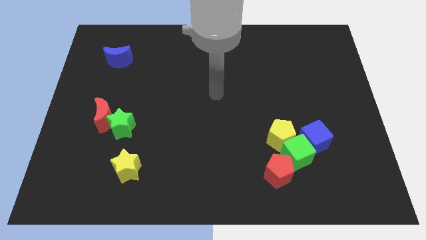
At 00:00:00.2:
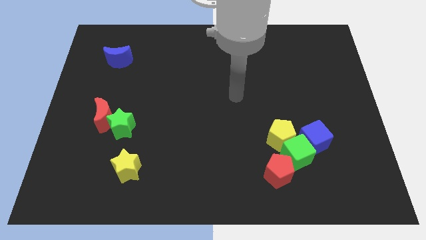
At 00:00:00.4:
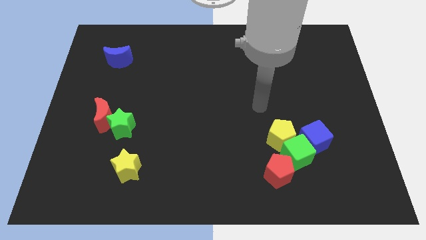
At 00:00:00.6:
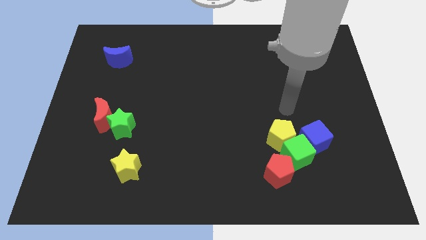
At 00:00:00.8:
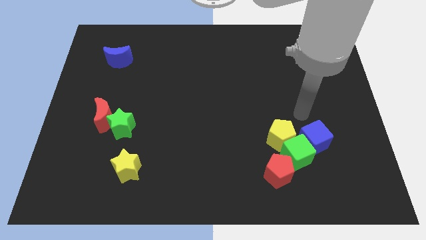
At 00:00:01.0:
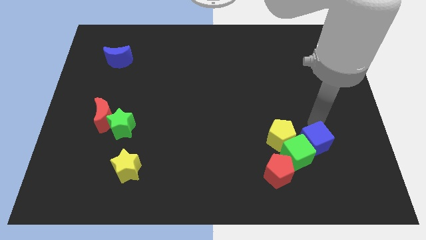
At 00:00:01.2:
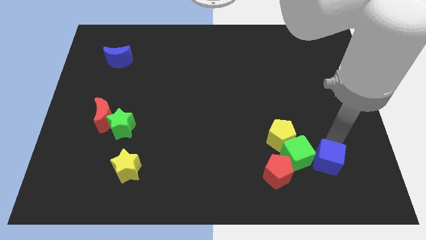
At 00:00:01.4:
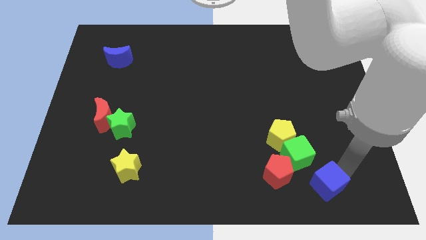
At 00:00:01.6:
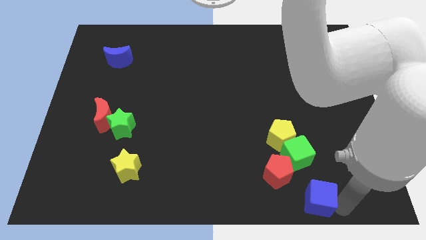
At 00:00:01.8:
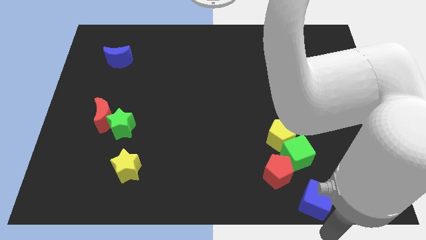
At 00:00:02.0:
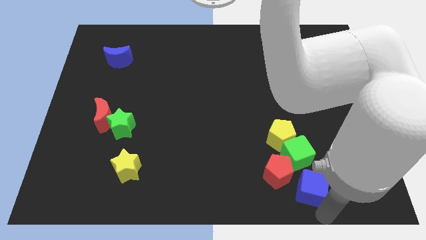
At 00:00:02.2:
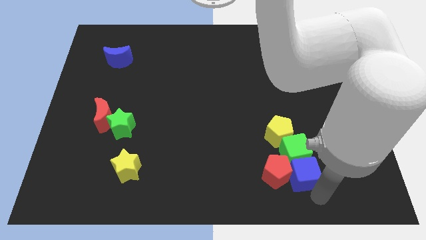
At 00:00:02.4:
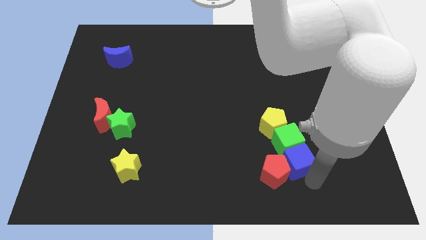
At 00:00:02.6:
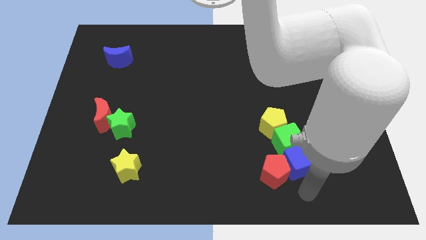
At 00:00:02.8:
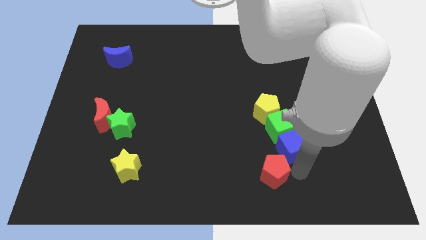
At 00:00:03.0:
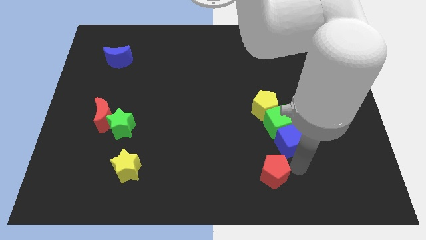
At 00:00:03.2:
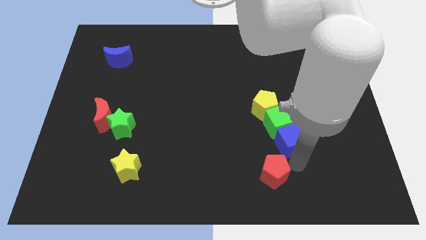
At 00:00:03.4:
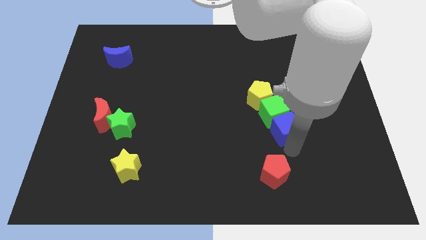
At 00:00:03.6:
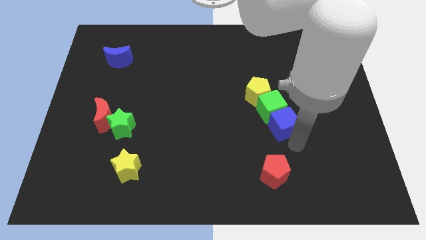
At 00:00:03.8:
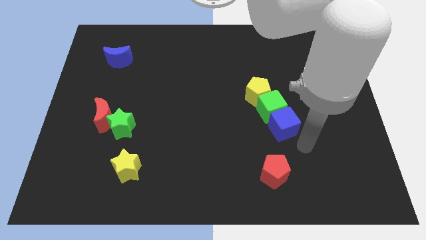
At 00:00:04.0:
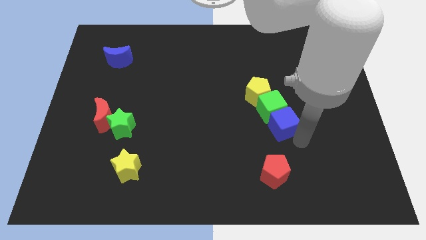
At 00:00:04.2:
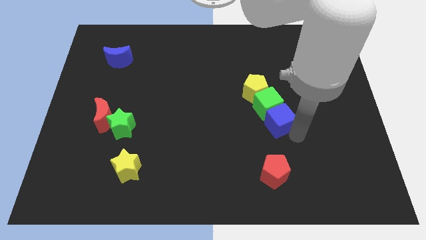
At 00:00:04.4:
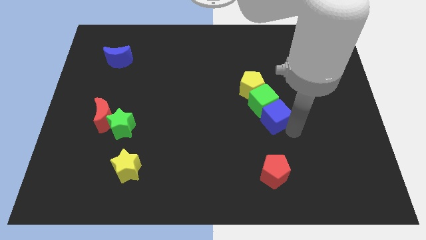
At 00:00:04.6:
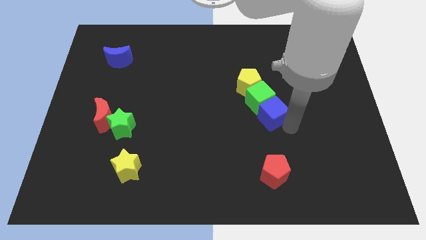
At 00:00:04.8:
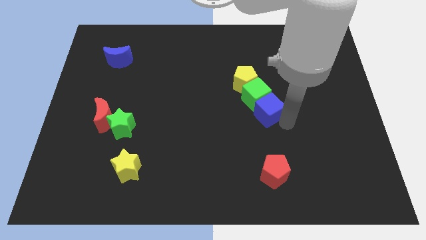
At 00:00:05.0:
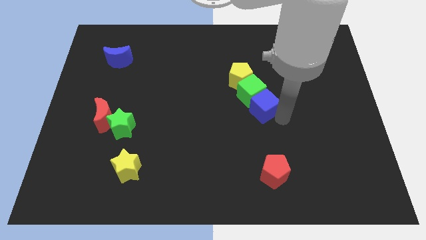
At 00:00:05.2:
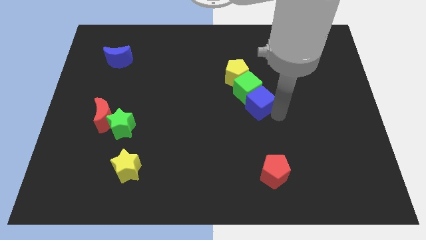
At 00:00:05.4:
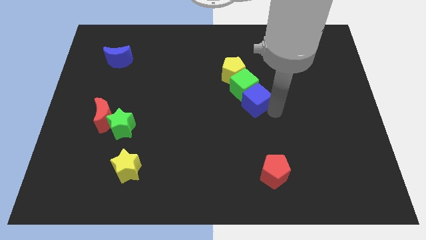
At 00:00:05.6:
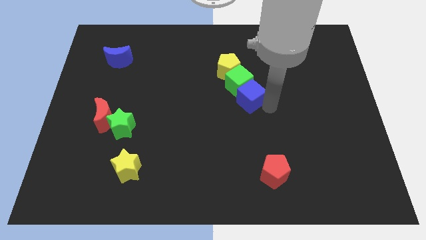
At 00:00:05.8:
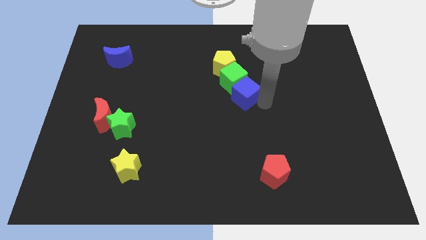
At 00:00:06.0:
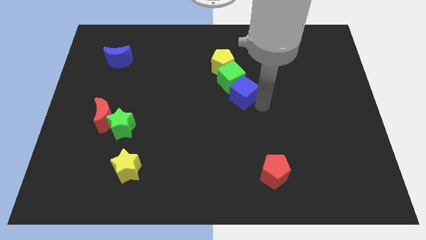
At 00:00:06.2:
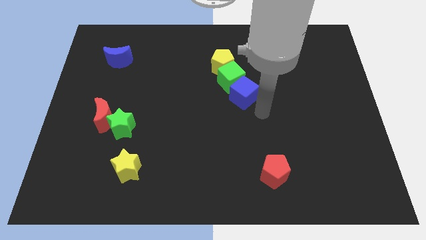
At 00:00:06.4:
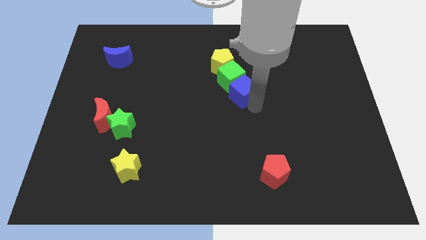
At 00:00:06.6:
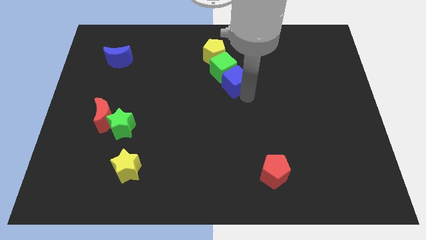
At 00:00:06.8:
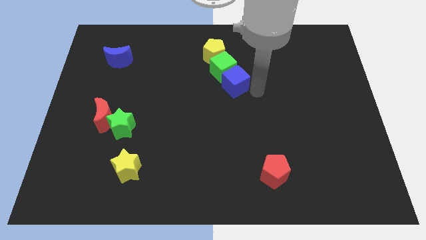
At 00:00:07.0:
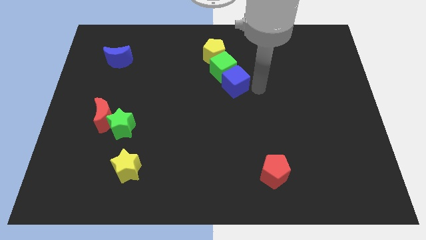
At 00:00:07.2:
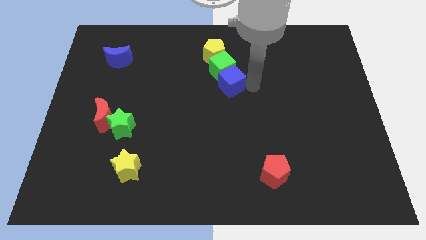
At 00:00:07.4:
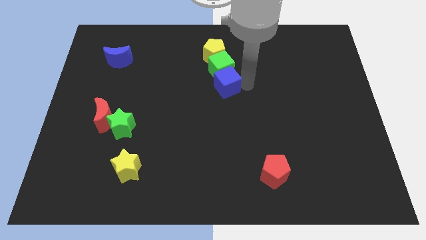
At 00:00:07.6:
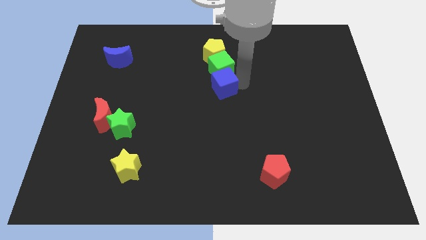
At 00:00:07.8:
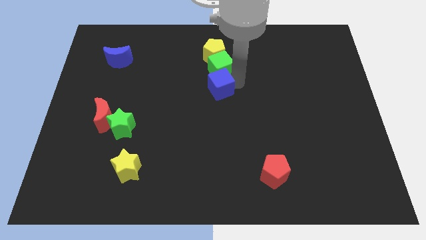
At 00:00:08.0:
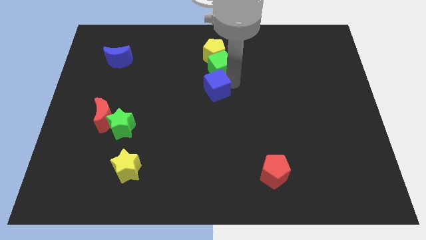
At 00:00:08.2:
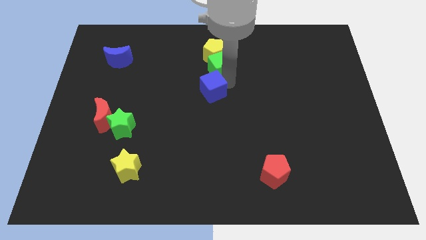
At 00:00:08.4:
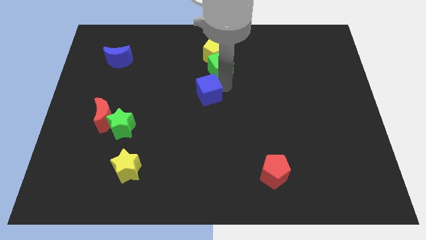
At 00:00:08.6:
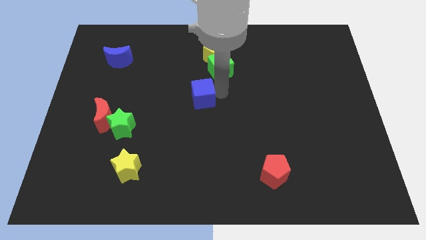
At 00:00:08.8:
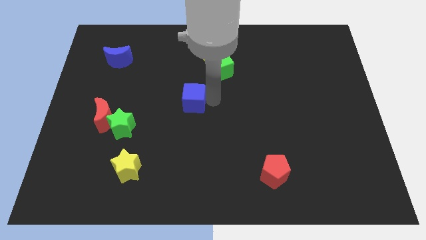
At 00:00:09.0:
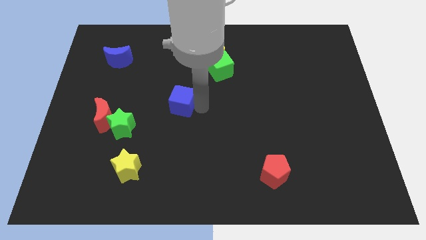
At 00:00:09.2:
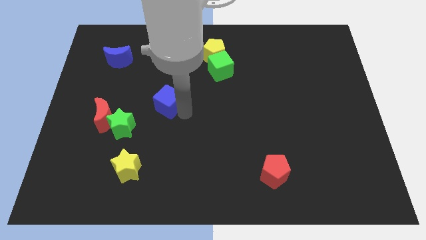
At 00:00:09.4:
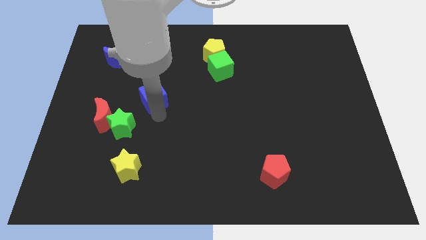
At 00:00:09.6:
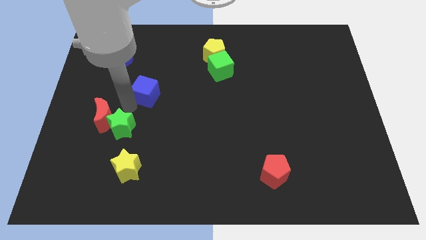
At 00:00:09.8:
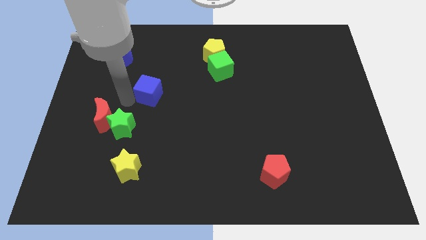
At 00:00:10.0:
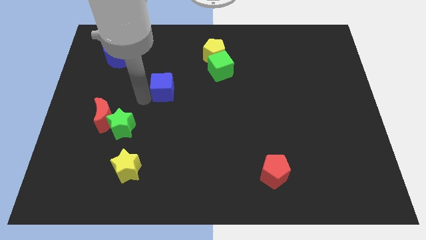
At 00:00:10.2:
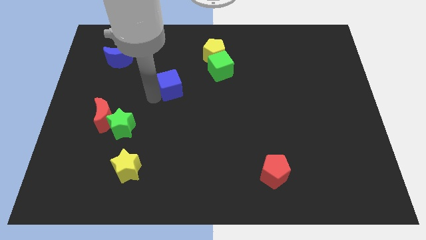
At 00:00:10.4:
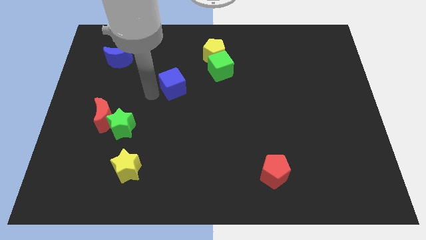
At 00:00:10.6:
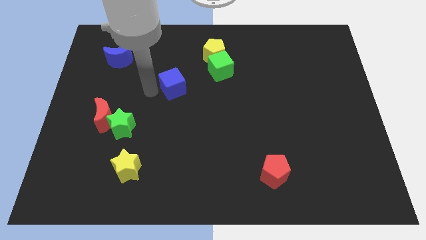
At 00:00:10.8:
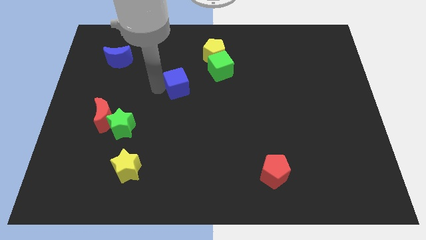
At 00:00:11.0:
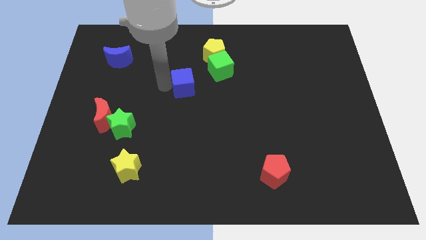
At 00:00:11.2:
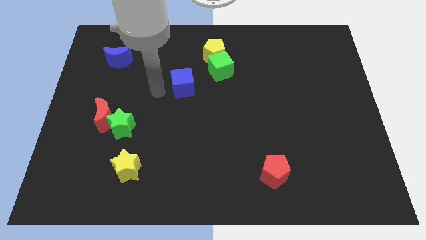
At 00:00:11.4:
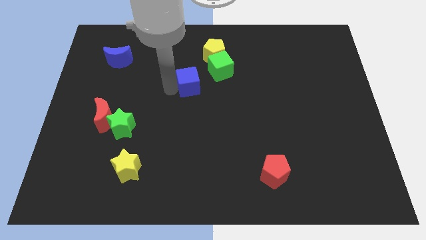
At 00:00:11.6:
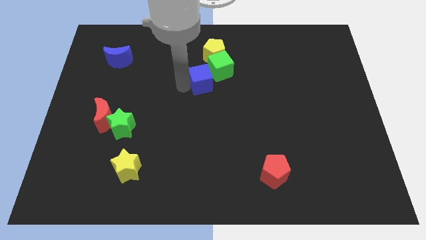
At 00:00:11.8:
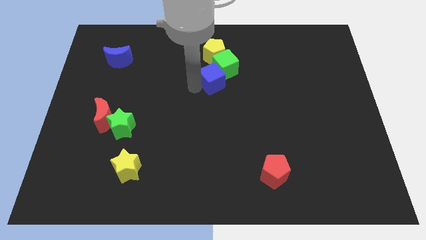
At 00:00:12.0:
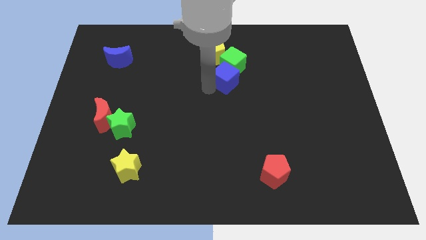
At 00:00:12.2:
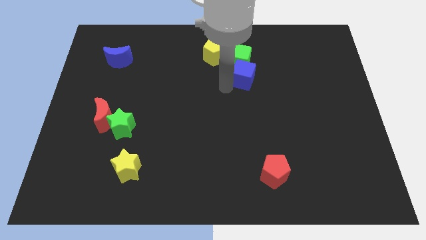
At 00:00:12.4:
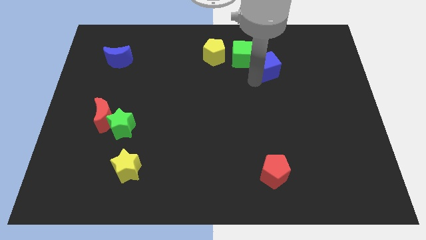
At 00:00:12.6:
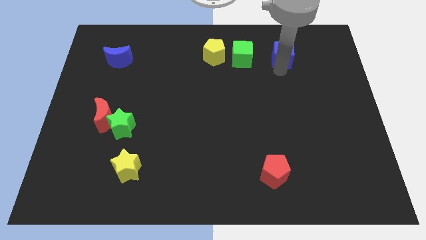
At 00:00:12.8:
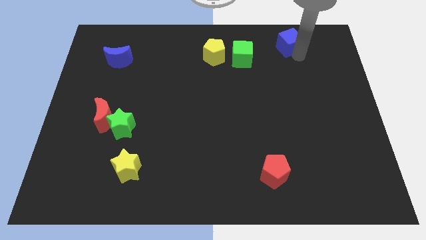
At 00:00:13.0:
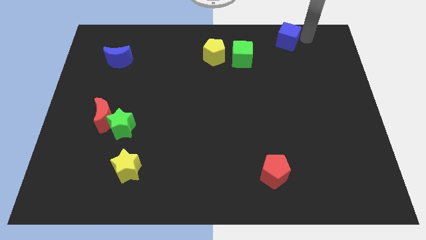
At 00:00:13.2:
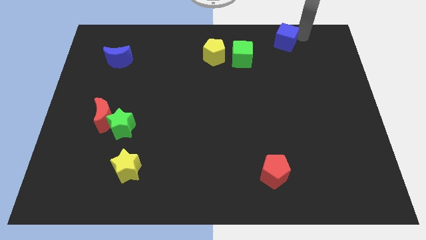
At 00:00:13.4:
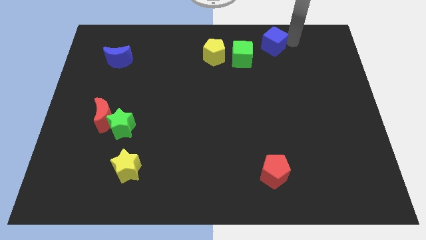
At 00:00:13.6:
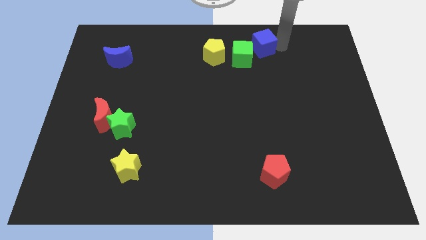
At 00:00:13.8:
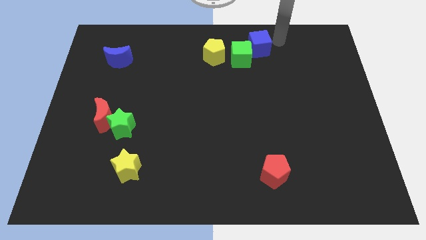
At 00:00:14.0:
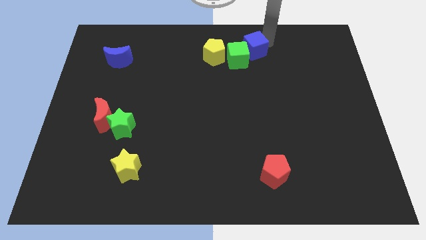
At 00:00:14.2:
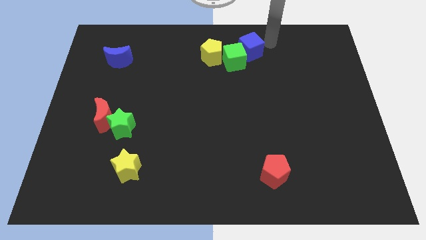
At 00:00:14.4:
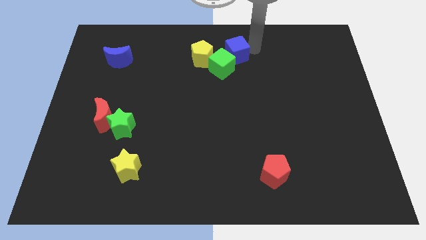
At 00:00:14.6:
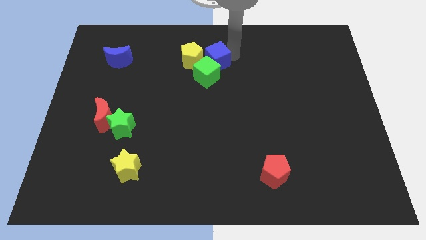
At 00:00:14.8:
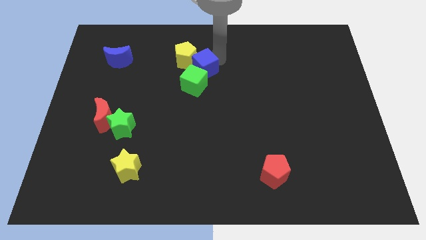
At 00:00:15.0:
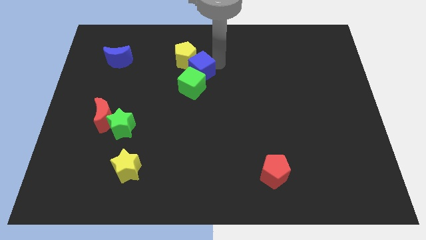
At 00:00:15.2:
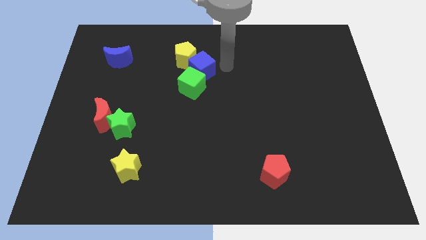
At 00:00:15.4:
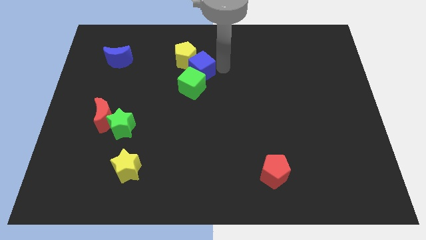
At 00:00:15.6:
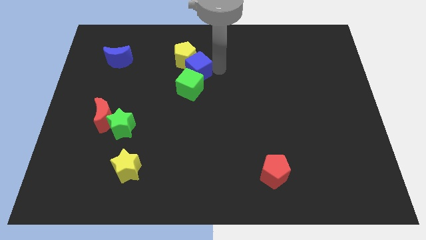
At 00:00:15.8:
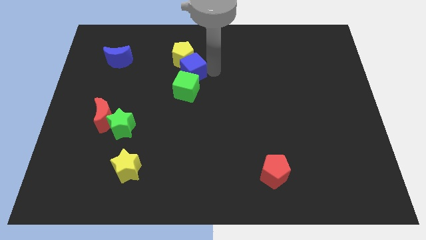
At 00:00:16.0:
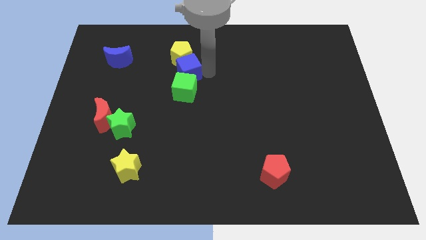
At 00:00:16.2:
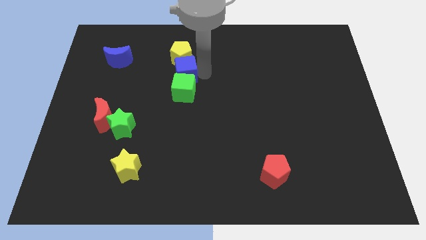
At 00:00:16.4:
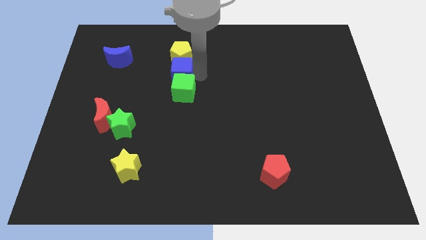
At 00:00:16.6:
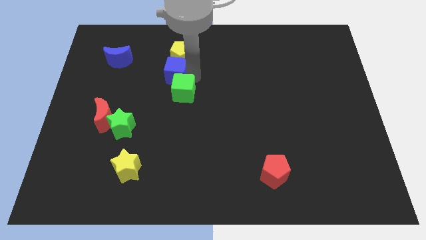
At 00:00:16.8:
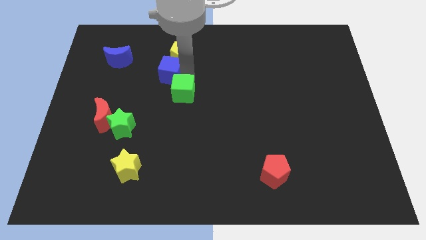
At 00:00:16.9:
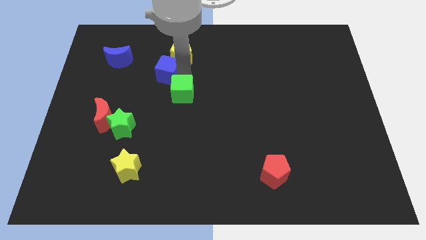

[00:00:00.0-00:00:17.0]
slide the blue cube to the right of the blue moon
